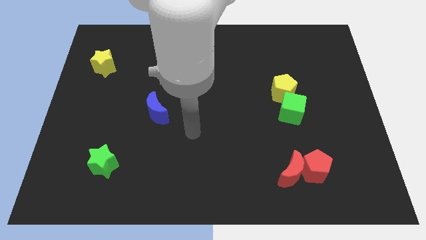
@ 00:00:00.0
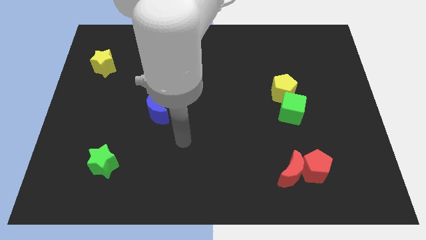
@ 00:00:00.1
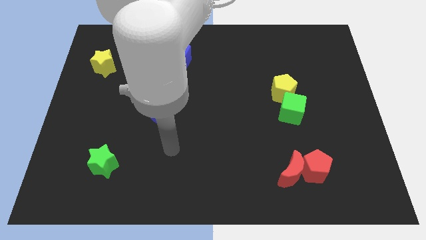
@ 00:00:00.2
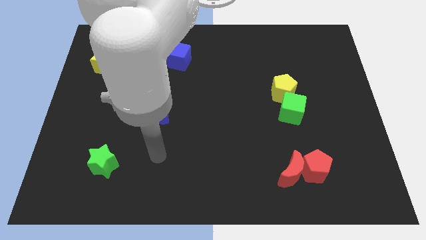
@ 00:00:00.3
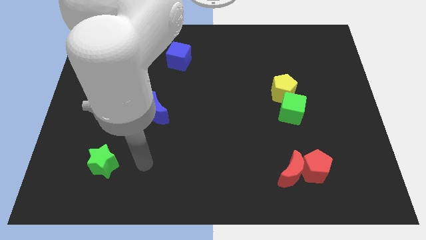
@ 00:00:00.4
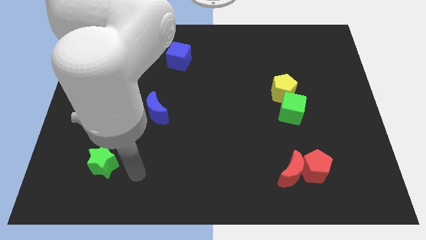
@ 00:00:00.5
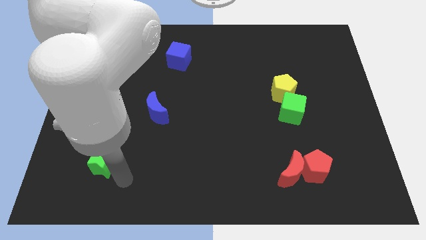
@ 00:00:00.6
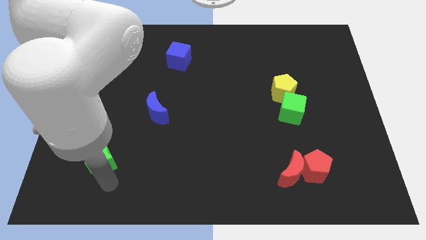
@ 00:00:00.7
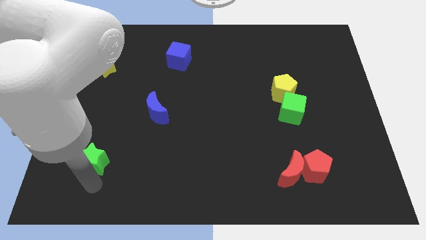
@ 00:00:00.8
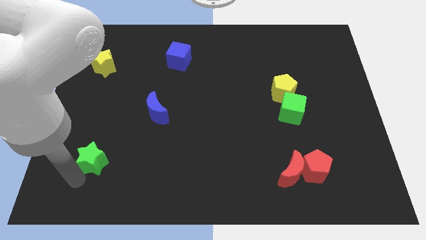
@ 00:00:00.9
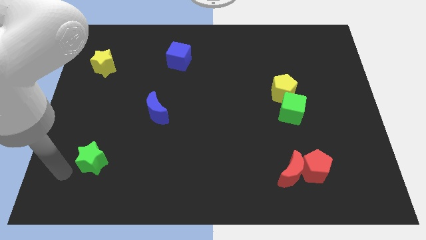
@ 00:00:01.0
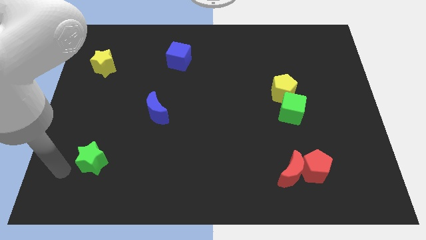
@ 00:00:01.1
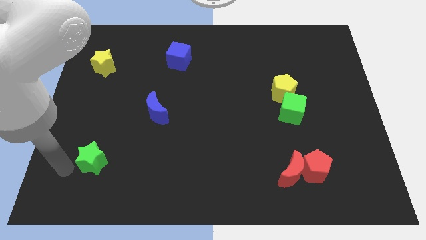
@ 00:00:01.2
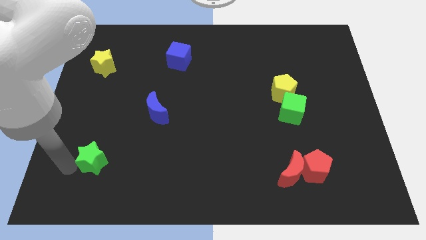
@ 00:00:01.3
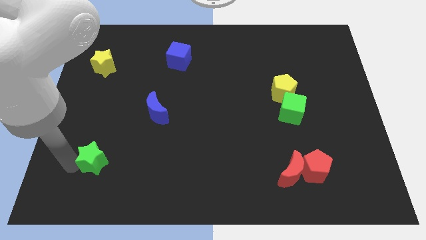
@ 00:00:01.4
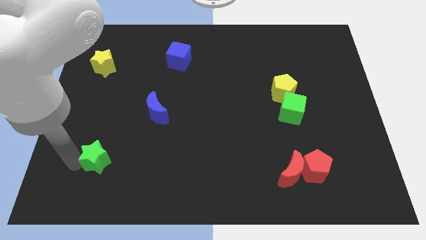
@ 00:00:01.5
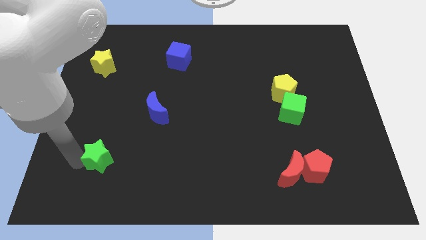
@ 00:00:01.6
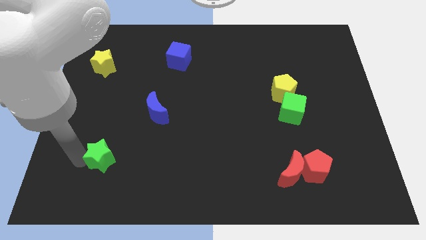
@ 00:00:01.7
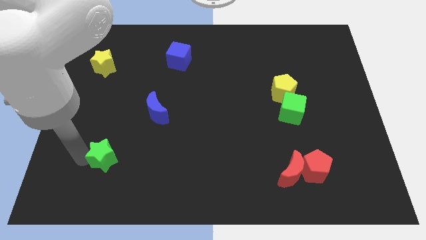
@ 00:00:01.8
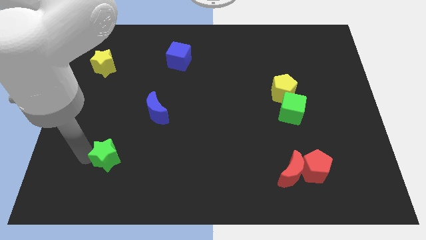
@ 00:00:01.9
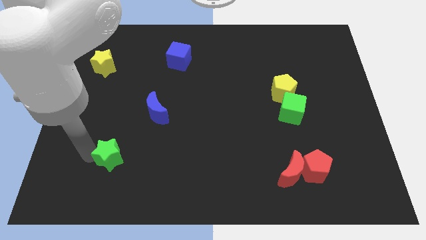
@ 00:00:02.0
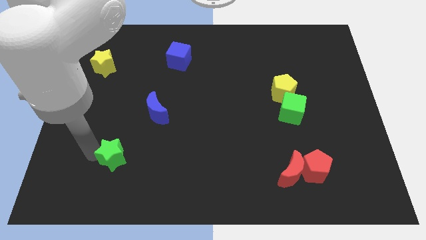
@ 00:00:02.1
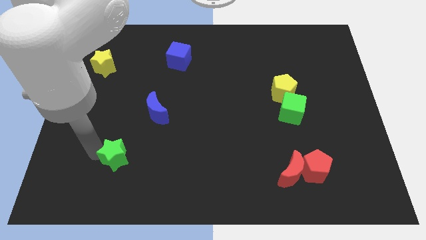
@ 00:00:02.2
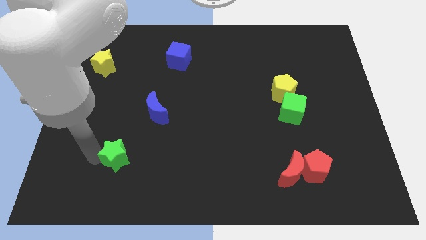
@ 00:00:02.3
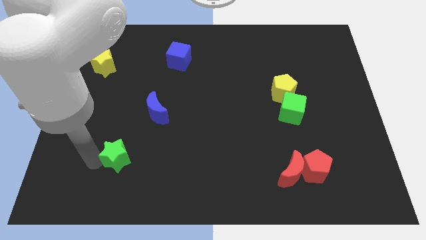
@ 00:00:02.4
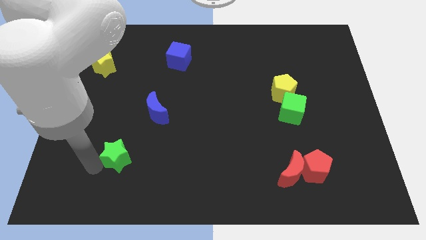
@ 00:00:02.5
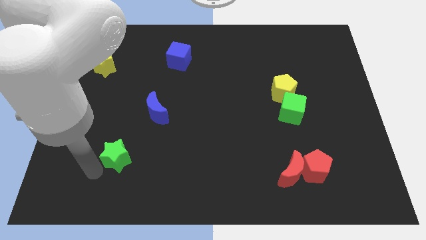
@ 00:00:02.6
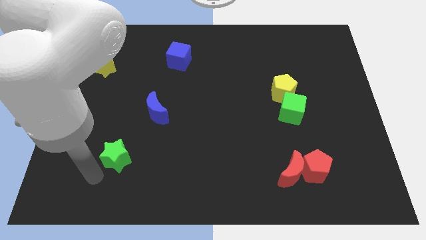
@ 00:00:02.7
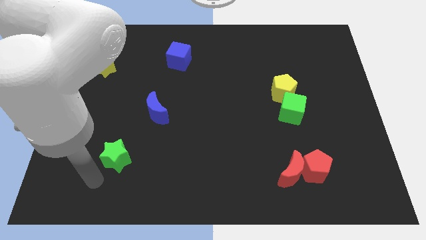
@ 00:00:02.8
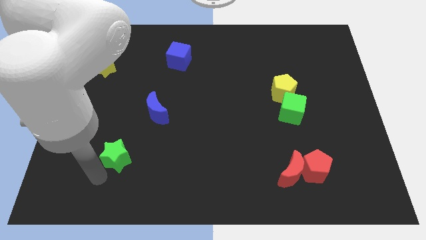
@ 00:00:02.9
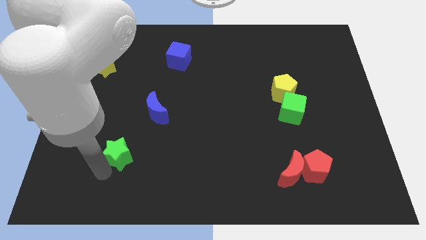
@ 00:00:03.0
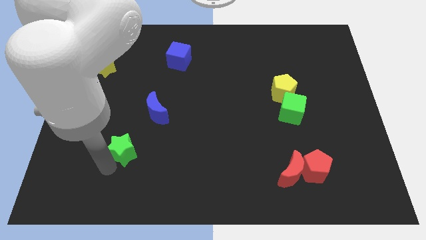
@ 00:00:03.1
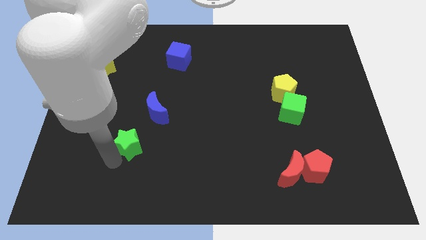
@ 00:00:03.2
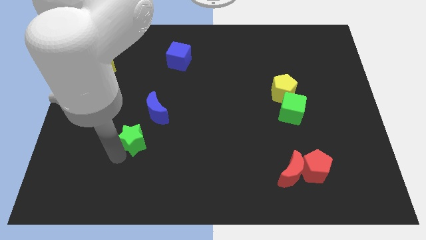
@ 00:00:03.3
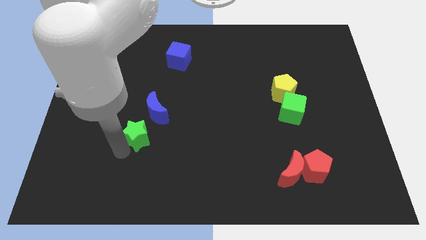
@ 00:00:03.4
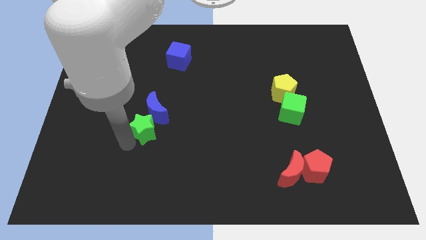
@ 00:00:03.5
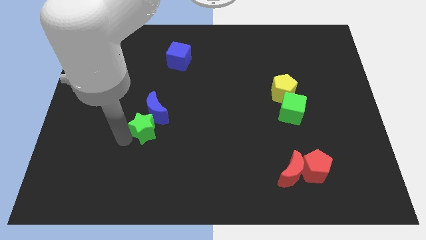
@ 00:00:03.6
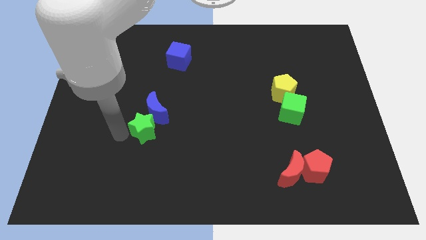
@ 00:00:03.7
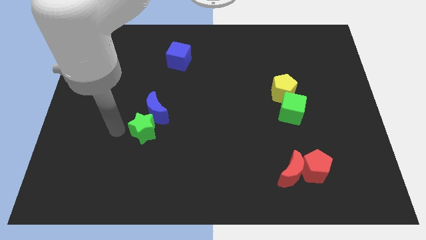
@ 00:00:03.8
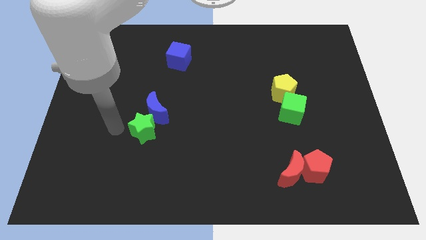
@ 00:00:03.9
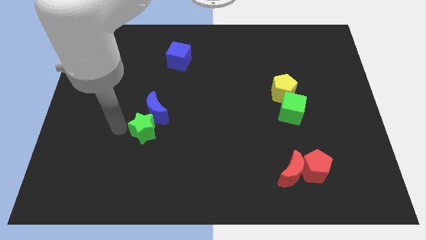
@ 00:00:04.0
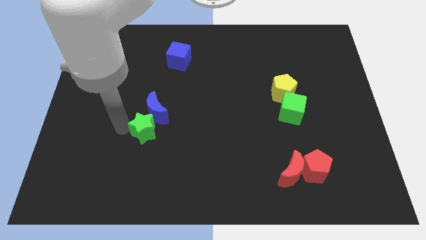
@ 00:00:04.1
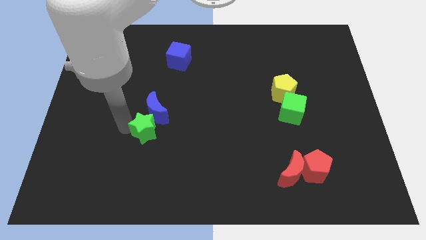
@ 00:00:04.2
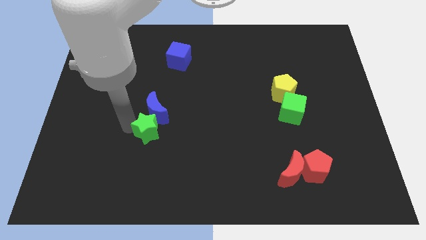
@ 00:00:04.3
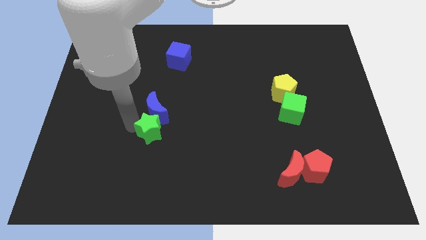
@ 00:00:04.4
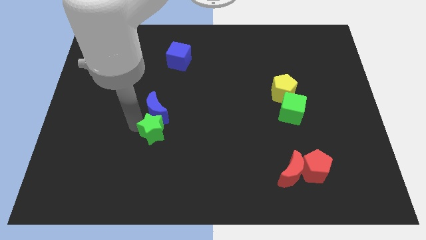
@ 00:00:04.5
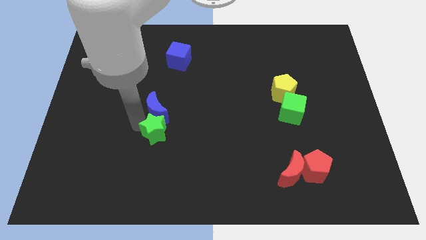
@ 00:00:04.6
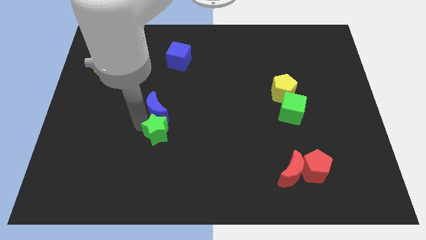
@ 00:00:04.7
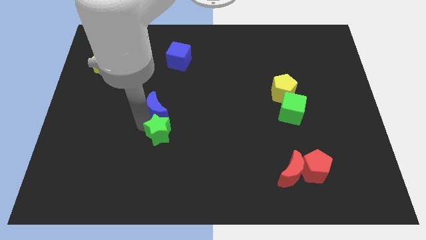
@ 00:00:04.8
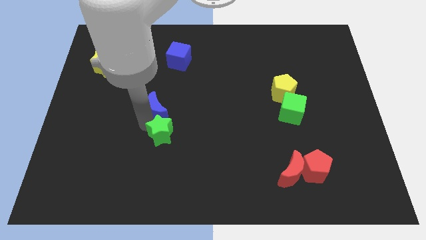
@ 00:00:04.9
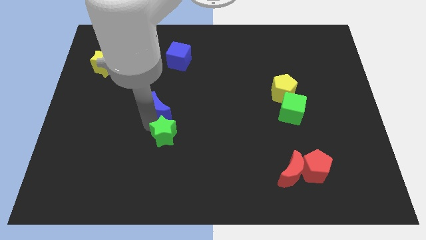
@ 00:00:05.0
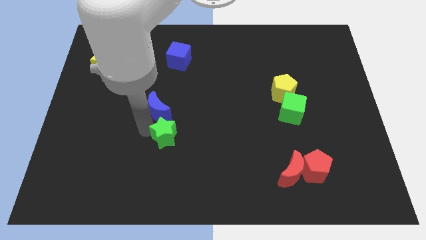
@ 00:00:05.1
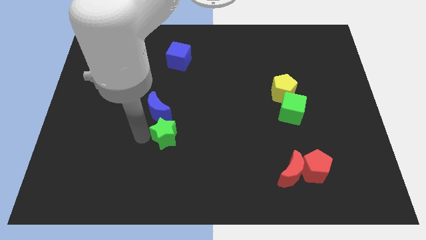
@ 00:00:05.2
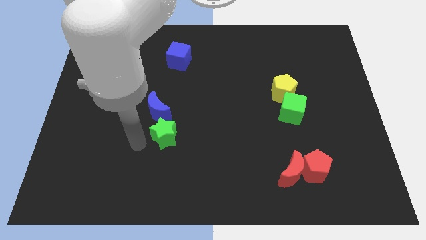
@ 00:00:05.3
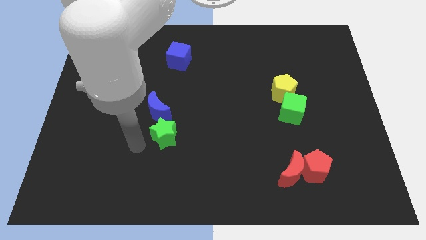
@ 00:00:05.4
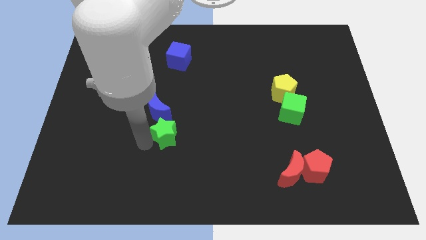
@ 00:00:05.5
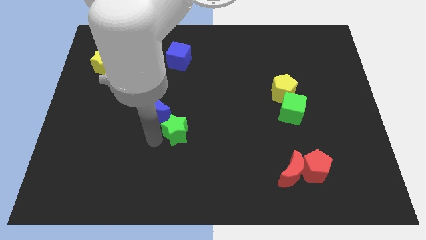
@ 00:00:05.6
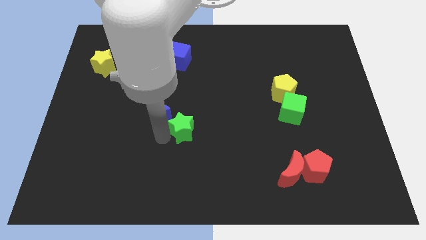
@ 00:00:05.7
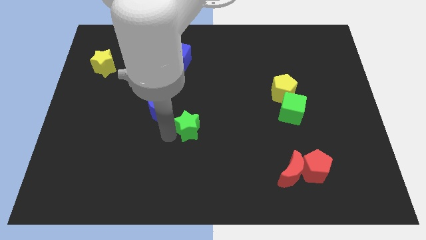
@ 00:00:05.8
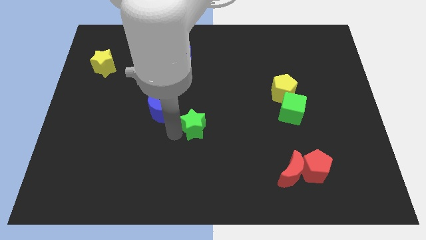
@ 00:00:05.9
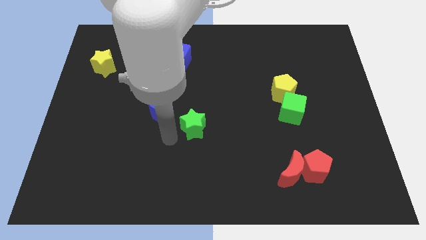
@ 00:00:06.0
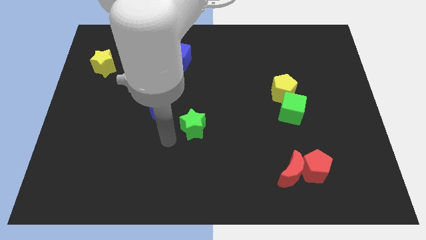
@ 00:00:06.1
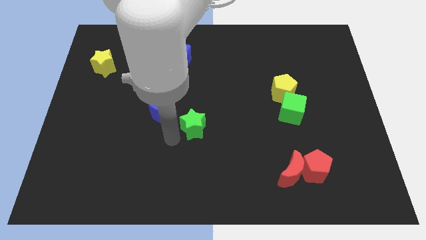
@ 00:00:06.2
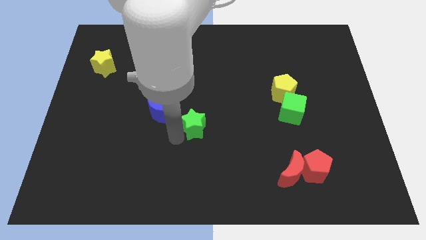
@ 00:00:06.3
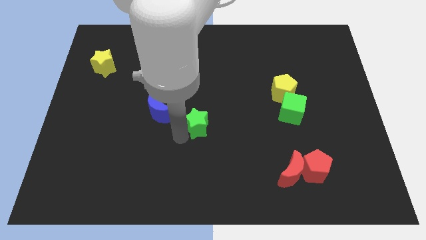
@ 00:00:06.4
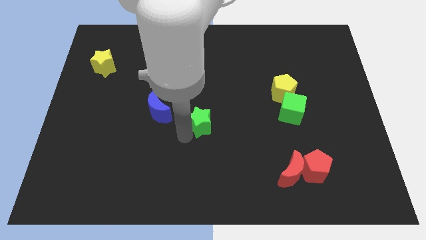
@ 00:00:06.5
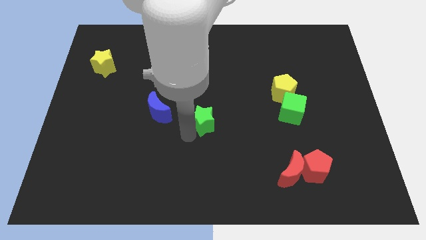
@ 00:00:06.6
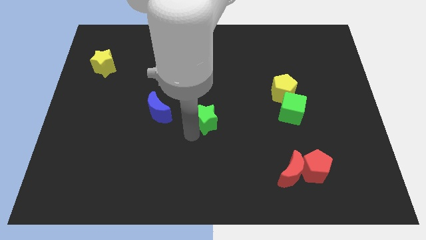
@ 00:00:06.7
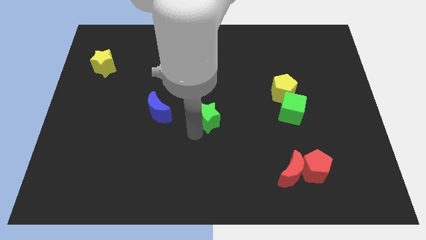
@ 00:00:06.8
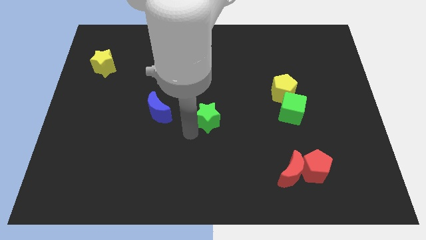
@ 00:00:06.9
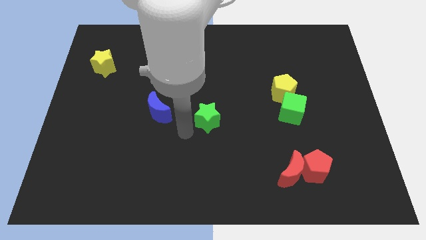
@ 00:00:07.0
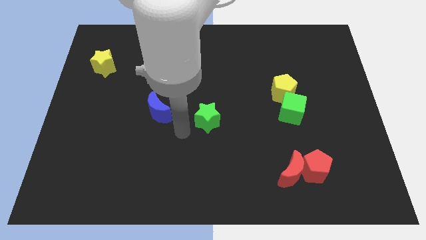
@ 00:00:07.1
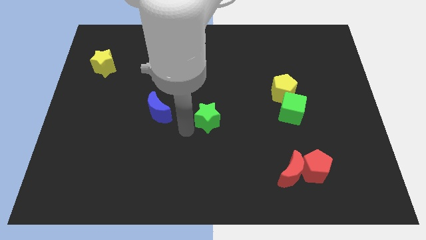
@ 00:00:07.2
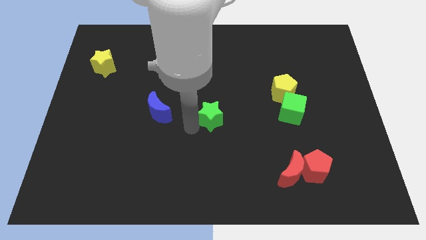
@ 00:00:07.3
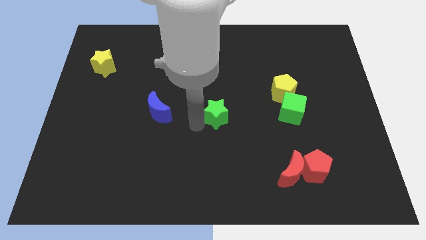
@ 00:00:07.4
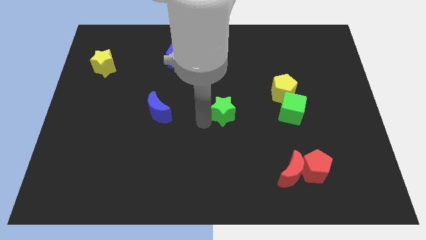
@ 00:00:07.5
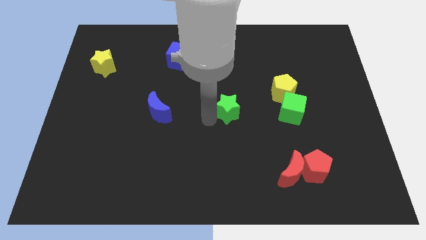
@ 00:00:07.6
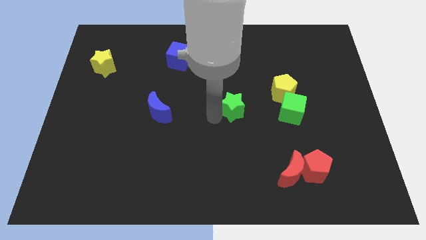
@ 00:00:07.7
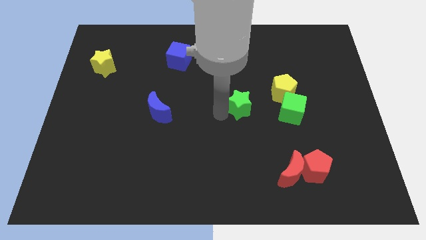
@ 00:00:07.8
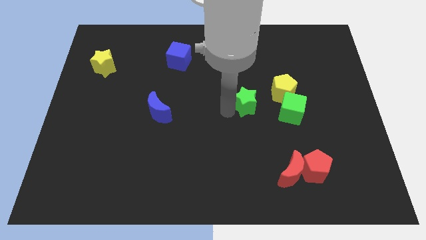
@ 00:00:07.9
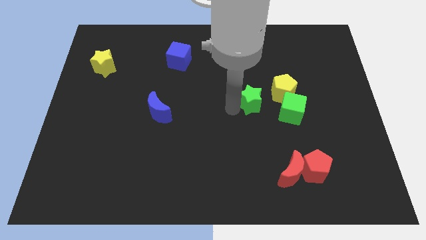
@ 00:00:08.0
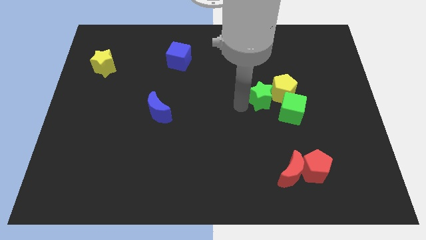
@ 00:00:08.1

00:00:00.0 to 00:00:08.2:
move the green star to the yellow pentagon
